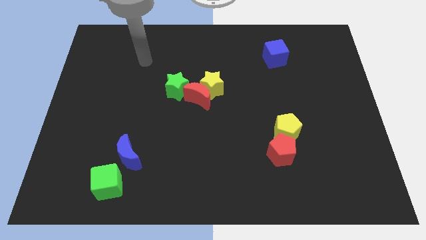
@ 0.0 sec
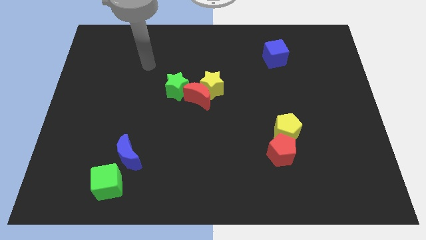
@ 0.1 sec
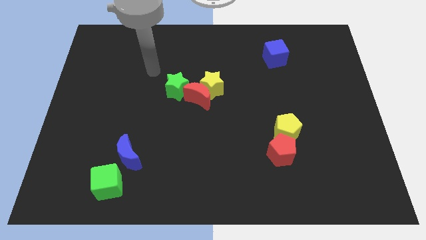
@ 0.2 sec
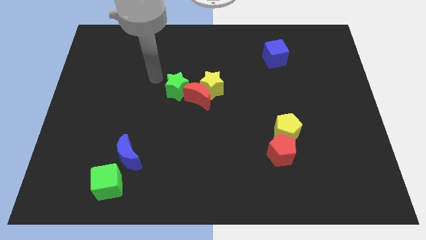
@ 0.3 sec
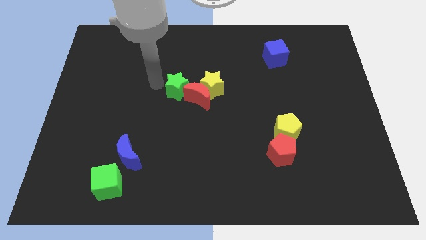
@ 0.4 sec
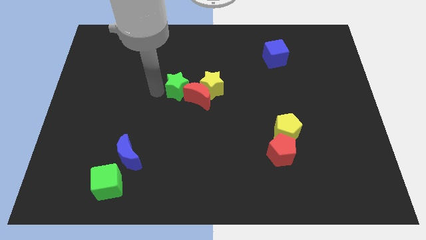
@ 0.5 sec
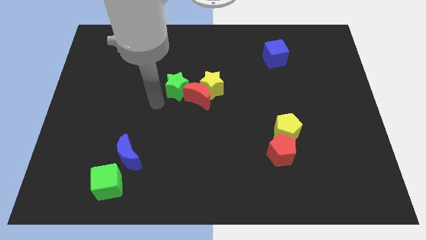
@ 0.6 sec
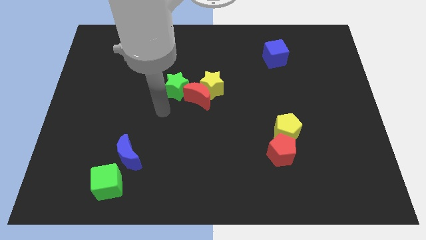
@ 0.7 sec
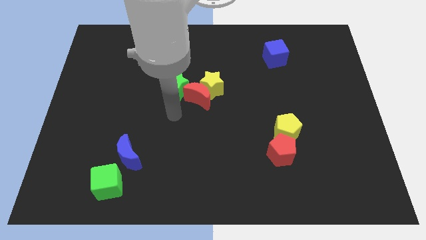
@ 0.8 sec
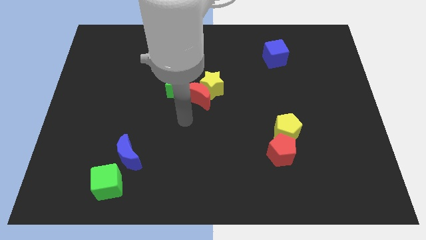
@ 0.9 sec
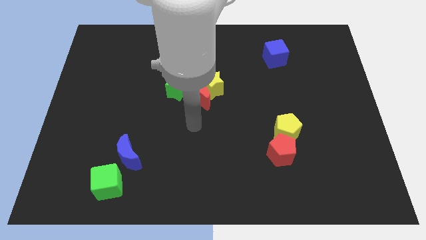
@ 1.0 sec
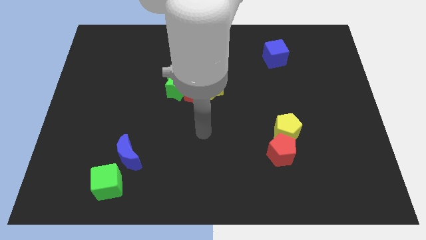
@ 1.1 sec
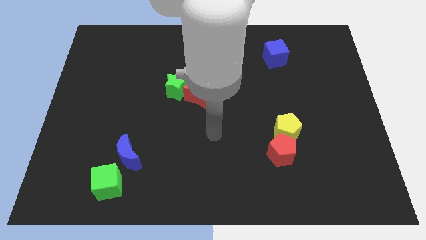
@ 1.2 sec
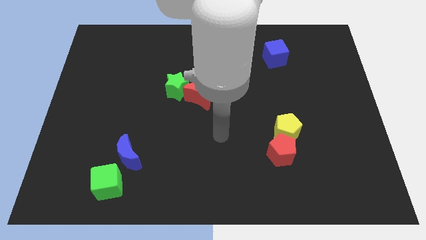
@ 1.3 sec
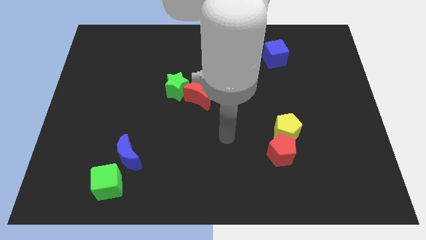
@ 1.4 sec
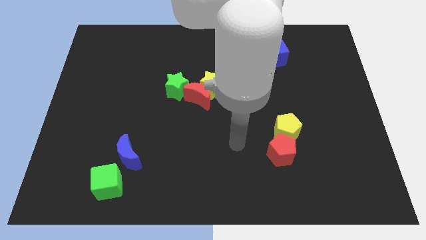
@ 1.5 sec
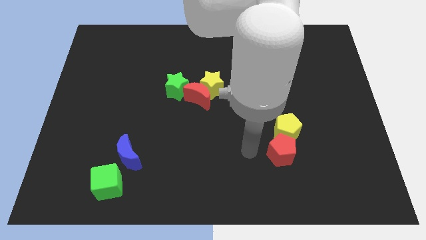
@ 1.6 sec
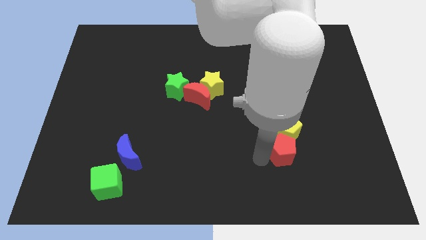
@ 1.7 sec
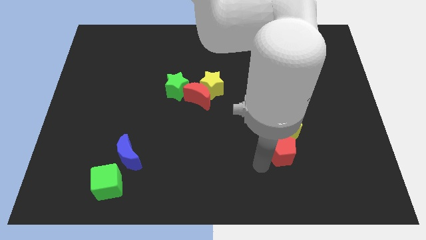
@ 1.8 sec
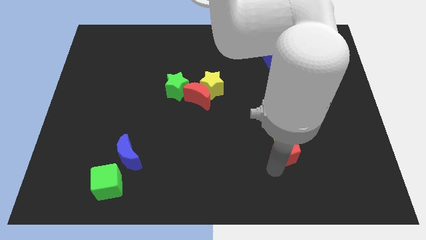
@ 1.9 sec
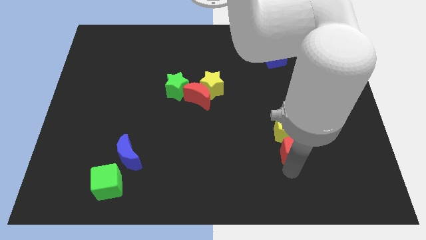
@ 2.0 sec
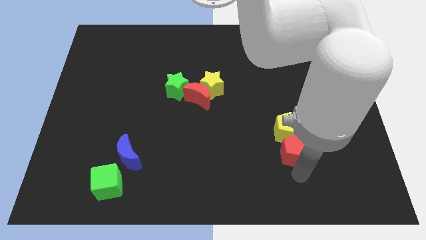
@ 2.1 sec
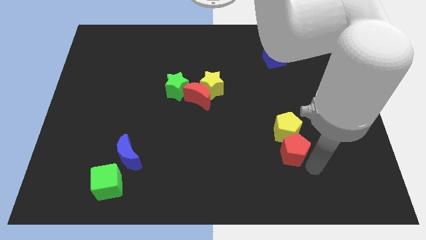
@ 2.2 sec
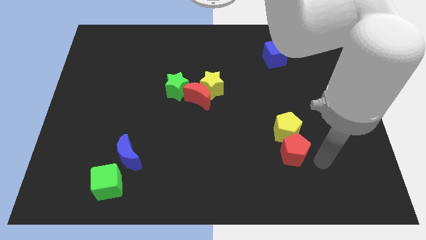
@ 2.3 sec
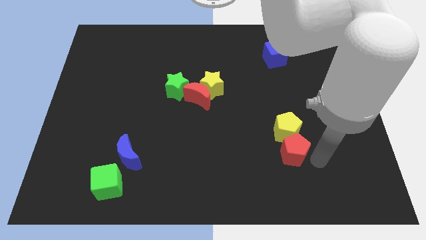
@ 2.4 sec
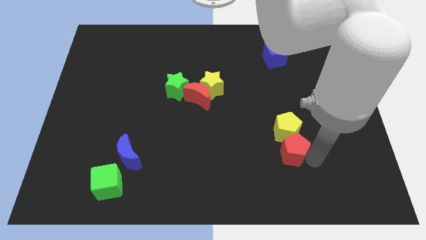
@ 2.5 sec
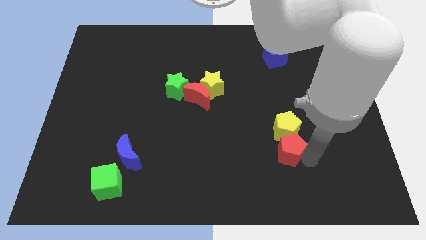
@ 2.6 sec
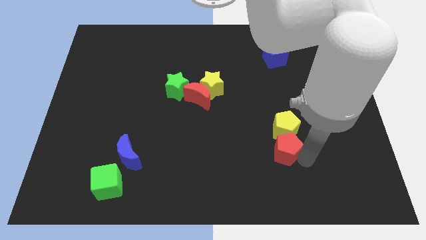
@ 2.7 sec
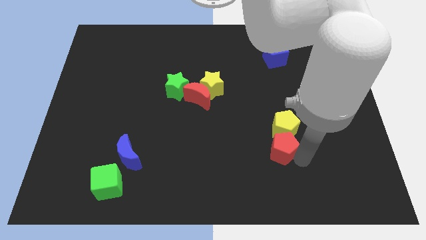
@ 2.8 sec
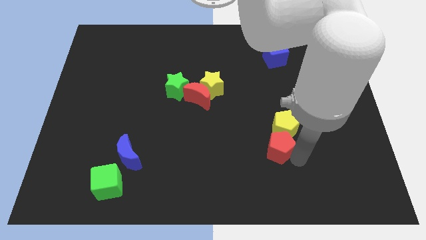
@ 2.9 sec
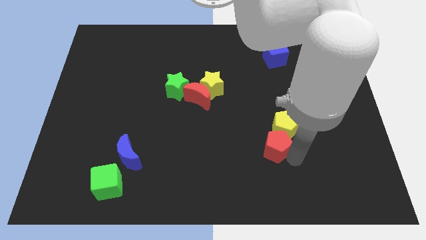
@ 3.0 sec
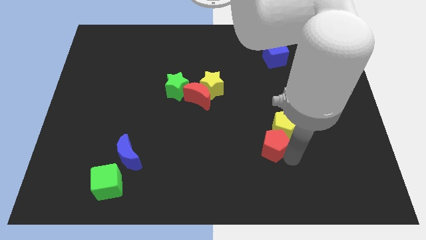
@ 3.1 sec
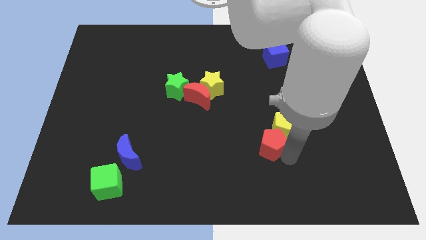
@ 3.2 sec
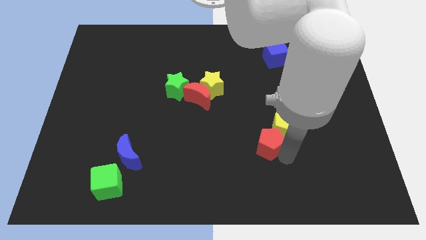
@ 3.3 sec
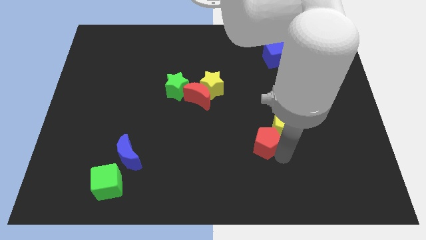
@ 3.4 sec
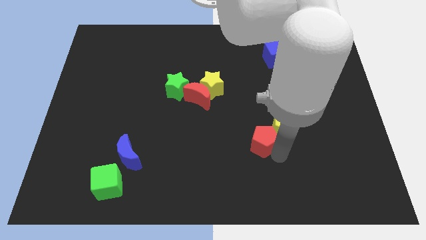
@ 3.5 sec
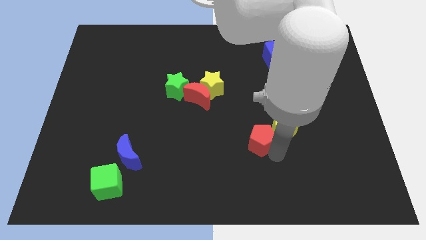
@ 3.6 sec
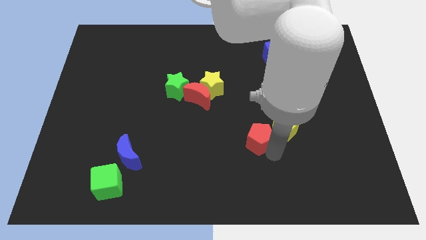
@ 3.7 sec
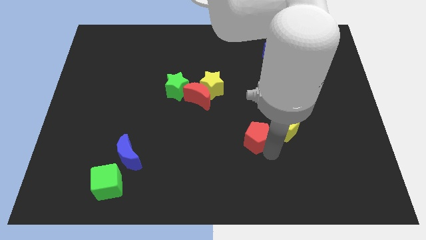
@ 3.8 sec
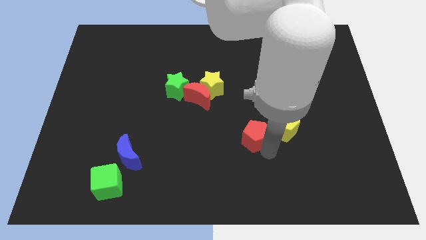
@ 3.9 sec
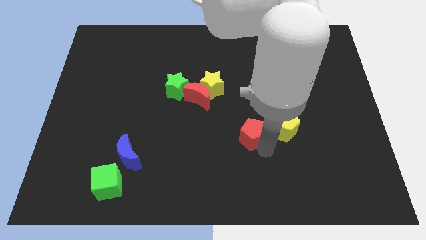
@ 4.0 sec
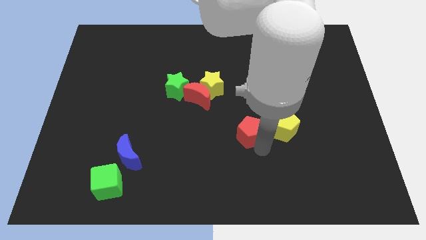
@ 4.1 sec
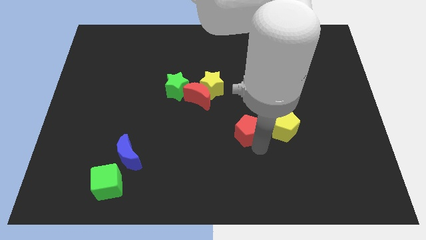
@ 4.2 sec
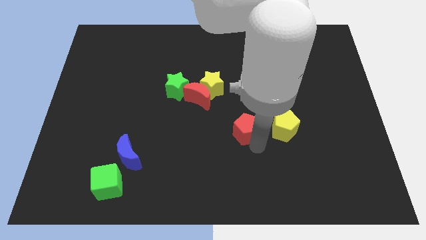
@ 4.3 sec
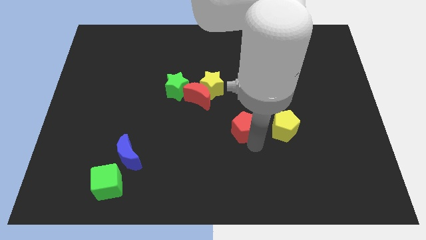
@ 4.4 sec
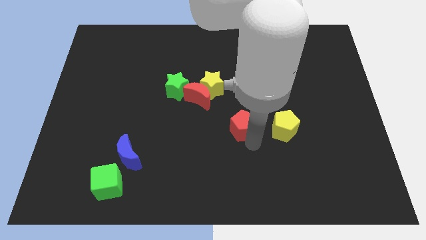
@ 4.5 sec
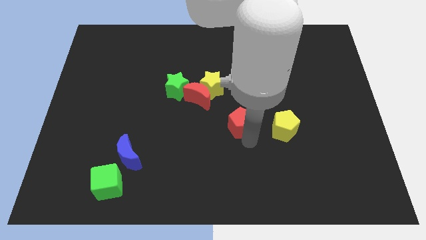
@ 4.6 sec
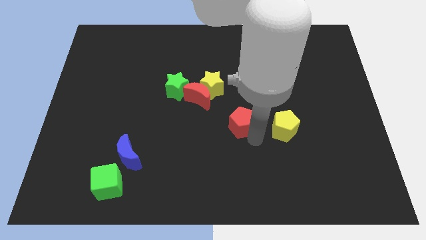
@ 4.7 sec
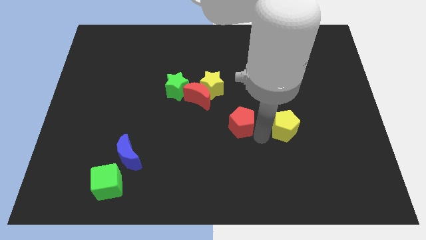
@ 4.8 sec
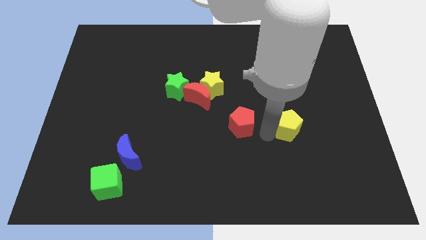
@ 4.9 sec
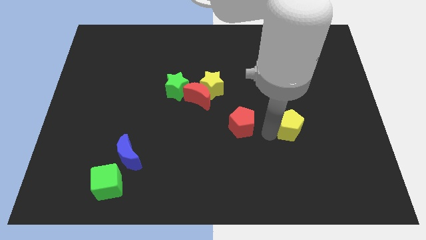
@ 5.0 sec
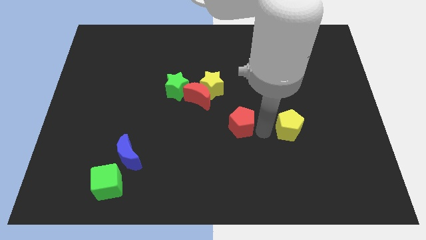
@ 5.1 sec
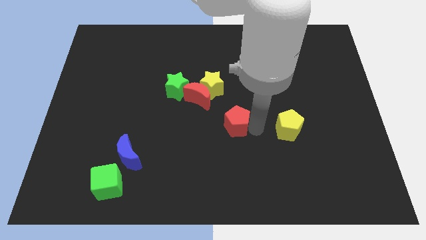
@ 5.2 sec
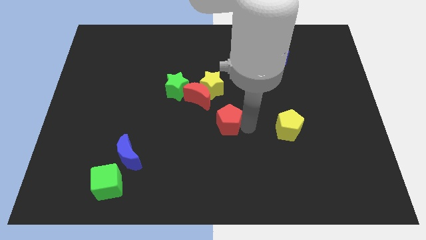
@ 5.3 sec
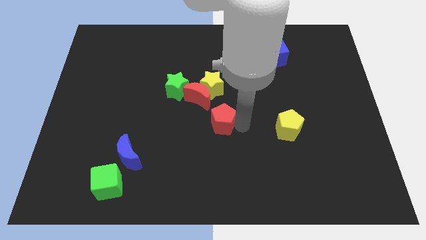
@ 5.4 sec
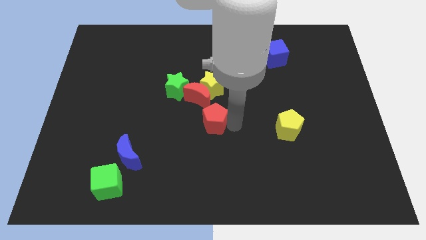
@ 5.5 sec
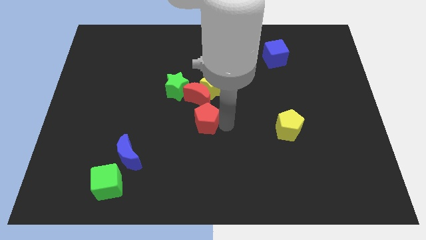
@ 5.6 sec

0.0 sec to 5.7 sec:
move the red pentagon to the bottom right side of the green star
